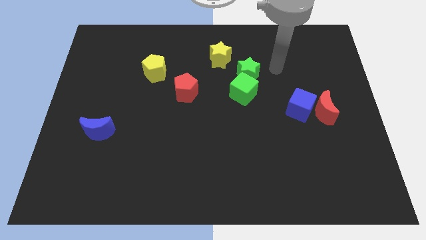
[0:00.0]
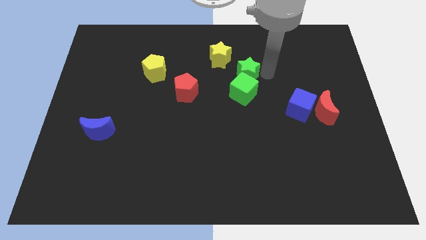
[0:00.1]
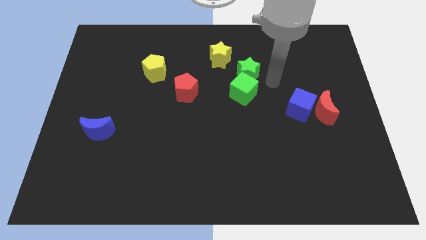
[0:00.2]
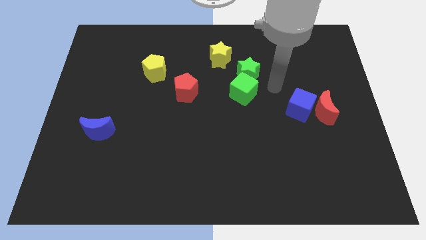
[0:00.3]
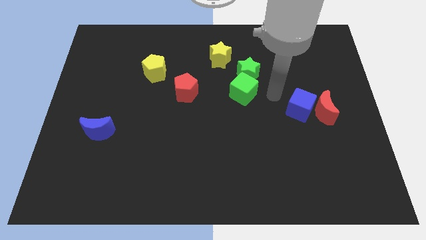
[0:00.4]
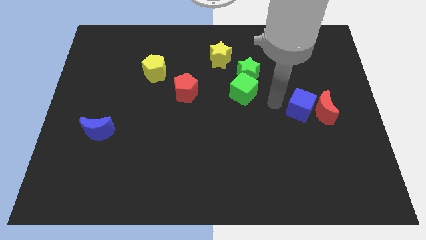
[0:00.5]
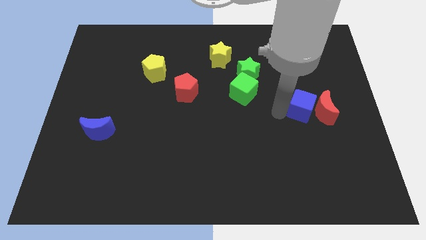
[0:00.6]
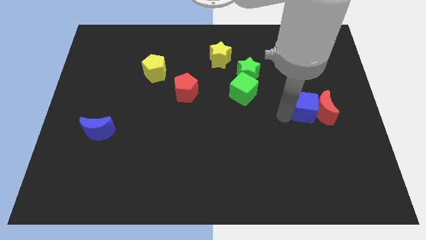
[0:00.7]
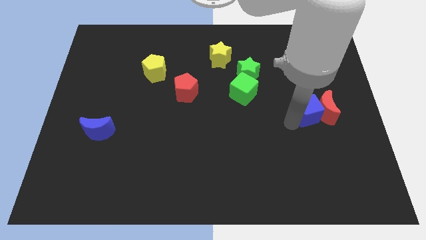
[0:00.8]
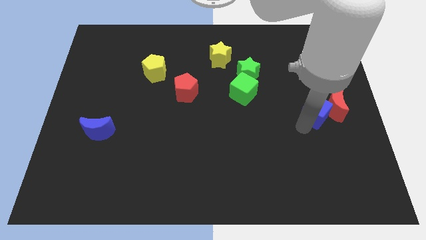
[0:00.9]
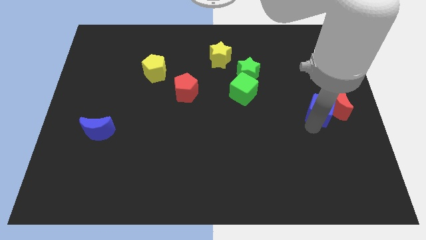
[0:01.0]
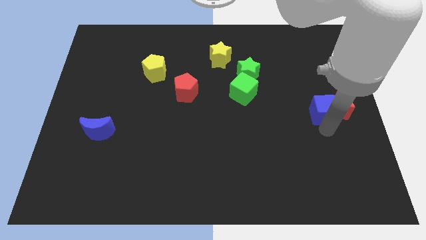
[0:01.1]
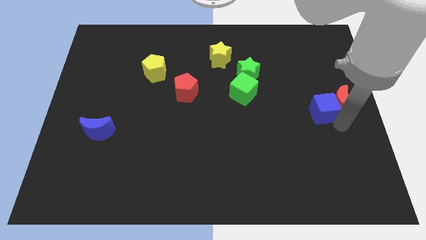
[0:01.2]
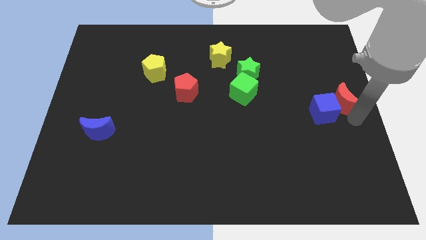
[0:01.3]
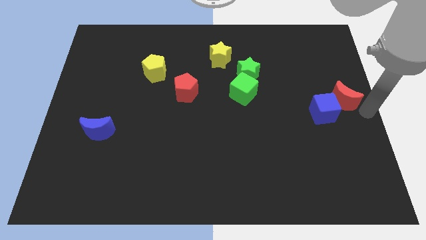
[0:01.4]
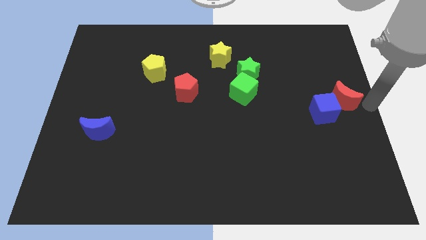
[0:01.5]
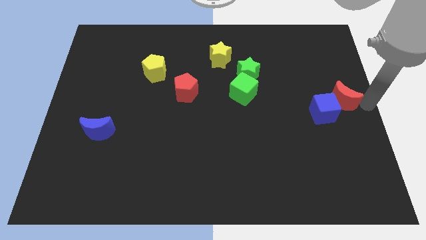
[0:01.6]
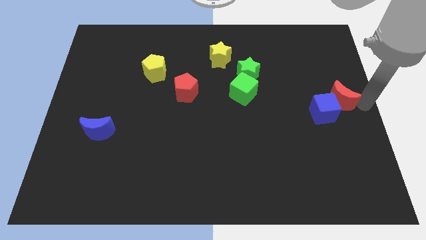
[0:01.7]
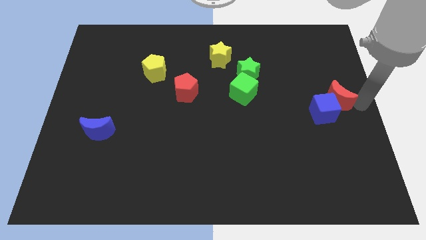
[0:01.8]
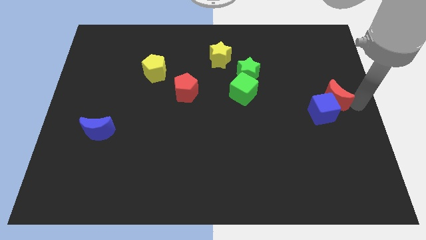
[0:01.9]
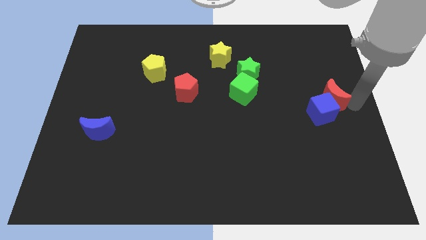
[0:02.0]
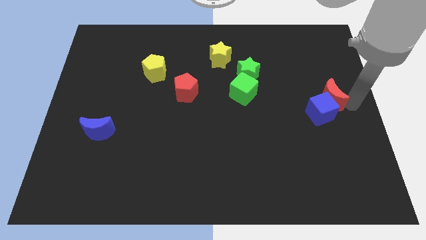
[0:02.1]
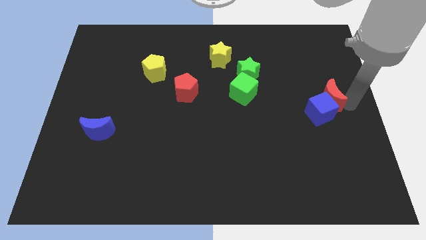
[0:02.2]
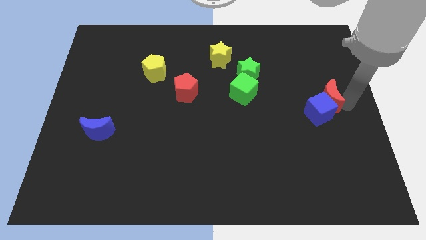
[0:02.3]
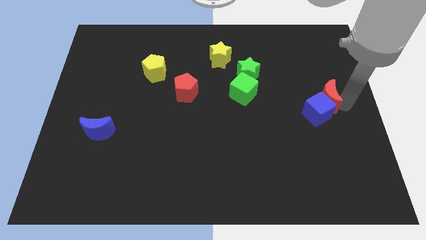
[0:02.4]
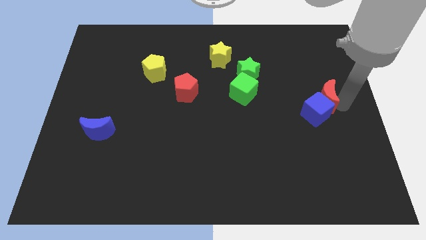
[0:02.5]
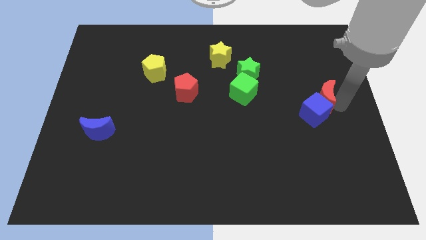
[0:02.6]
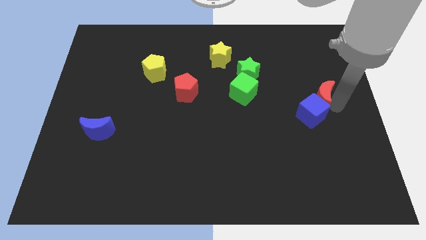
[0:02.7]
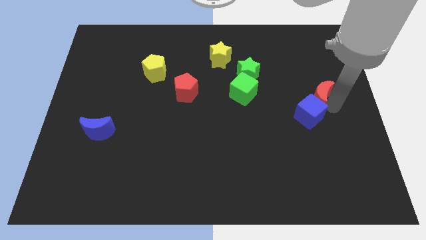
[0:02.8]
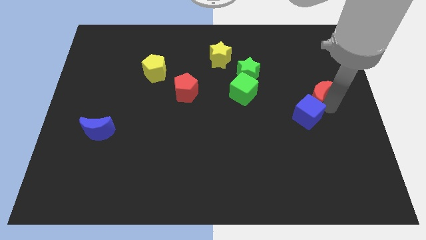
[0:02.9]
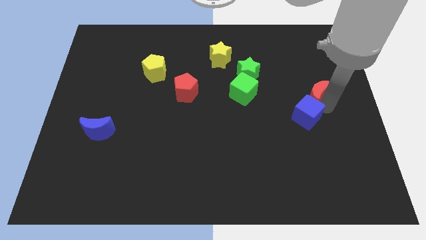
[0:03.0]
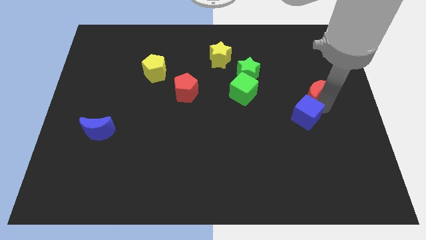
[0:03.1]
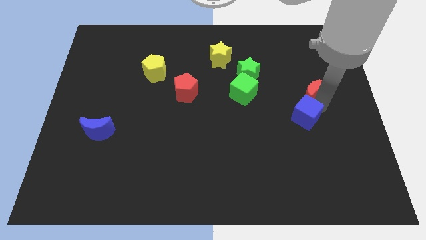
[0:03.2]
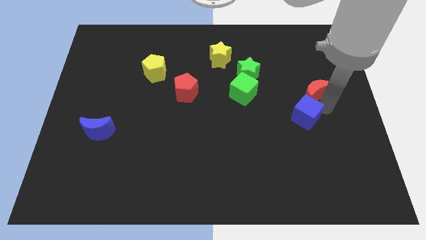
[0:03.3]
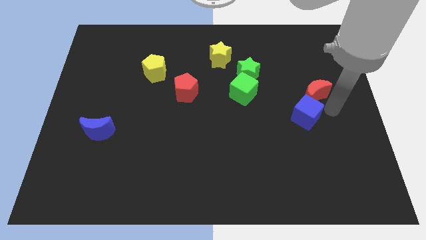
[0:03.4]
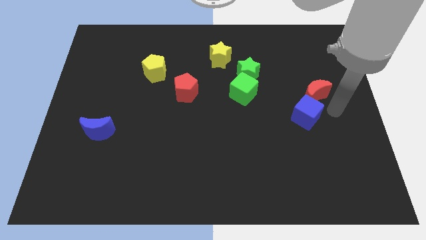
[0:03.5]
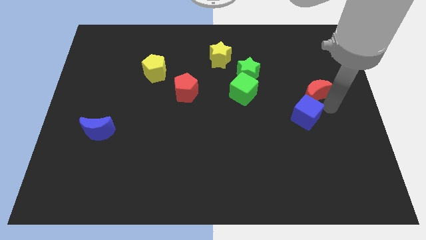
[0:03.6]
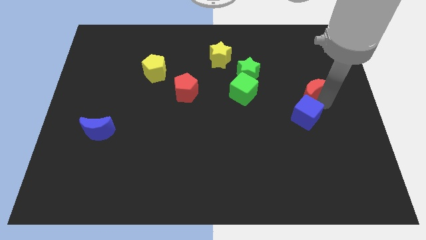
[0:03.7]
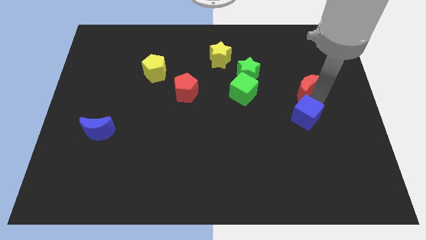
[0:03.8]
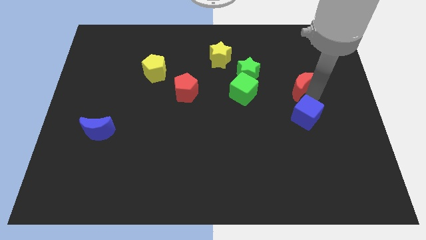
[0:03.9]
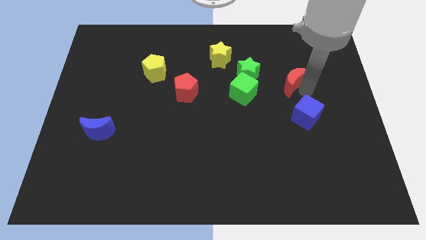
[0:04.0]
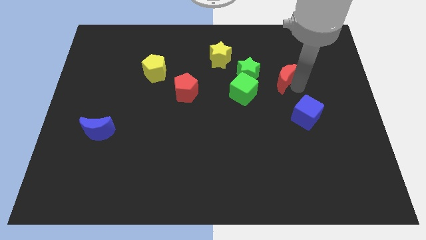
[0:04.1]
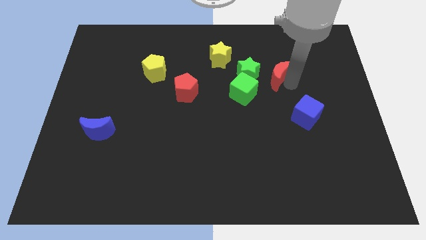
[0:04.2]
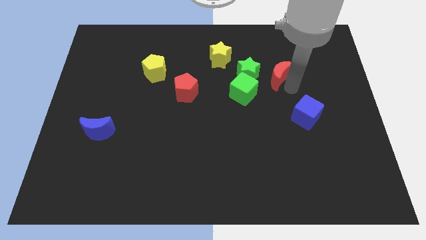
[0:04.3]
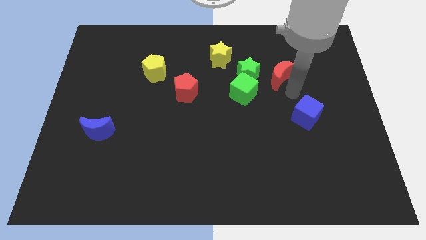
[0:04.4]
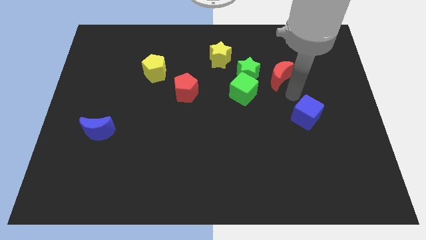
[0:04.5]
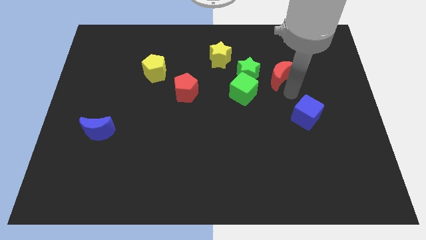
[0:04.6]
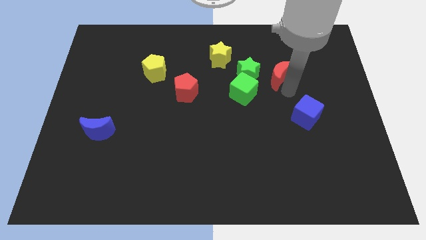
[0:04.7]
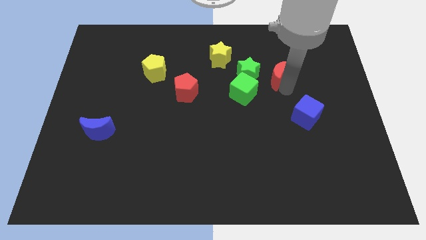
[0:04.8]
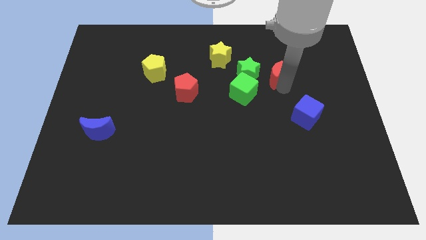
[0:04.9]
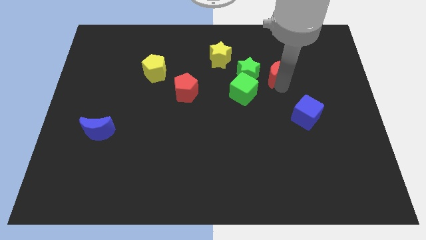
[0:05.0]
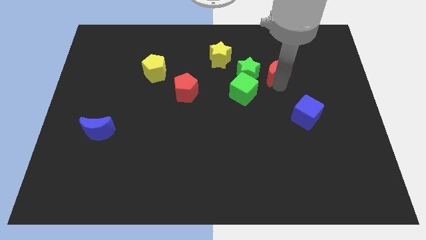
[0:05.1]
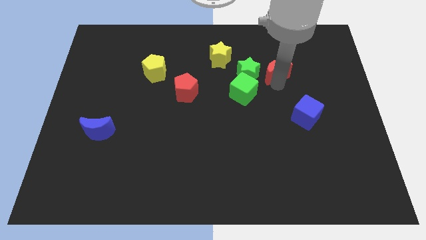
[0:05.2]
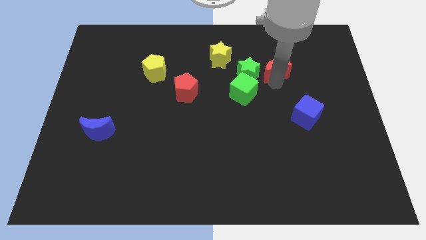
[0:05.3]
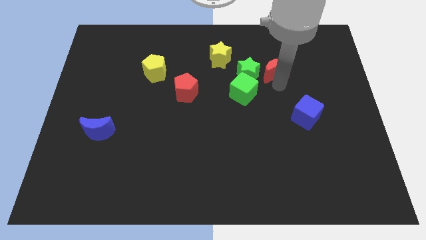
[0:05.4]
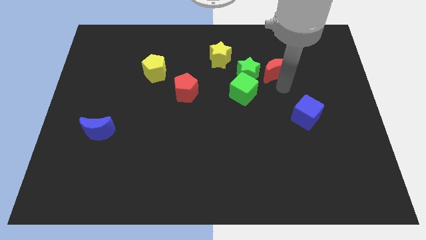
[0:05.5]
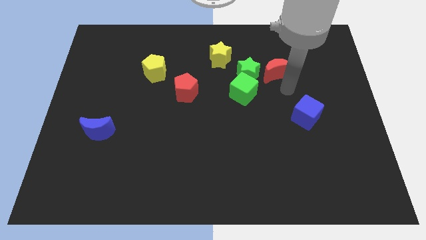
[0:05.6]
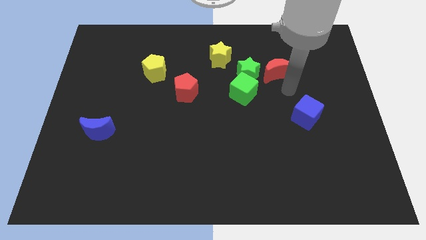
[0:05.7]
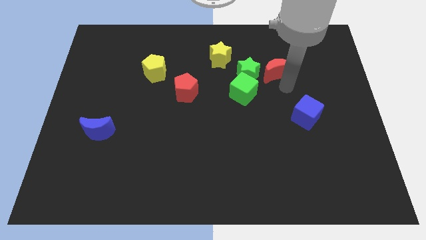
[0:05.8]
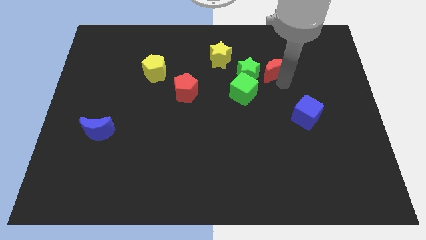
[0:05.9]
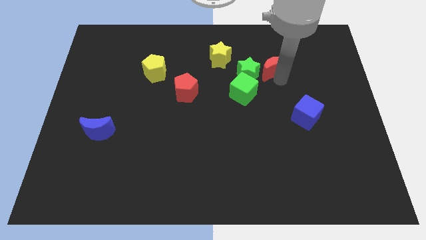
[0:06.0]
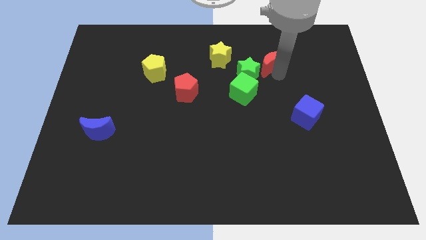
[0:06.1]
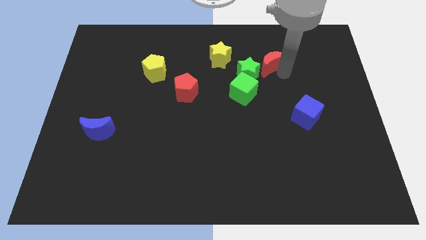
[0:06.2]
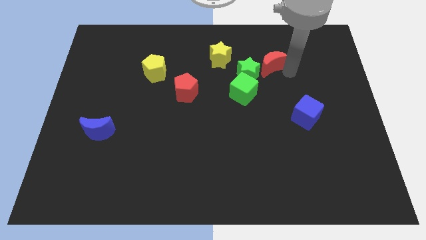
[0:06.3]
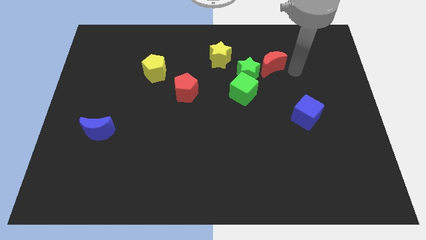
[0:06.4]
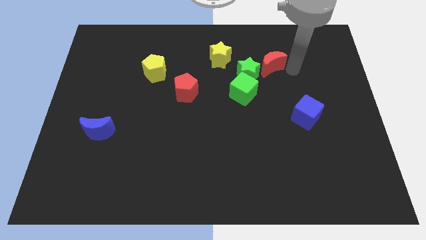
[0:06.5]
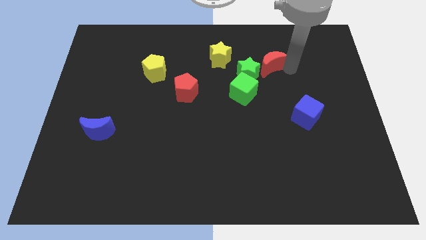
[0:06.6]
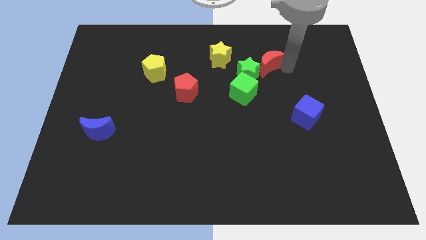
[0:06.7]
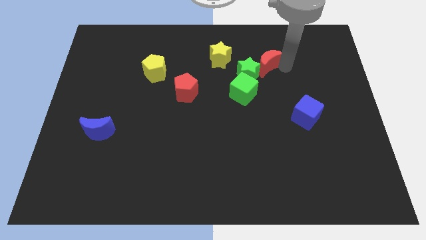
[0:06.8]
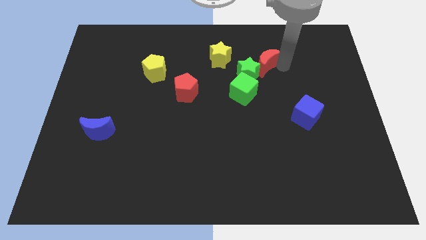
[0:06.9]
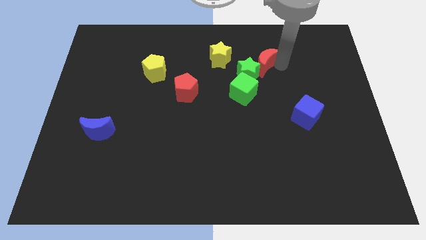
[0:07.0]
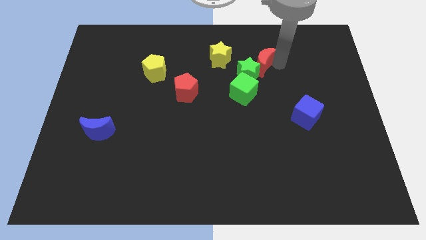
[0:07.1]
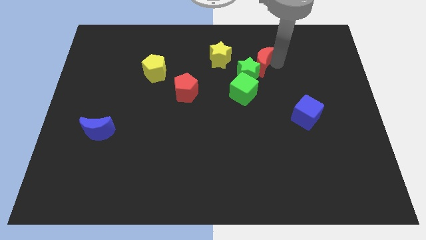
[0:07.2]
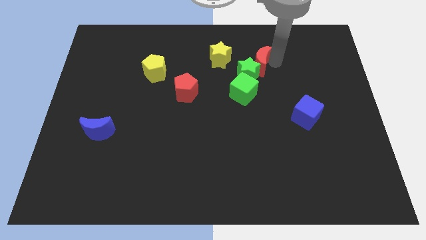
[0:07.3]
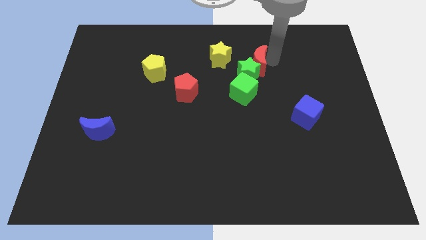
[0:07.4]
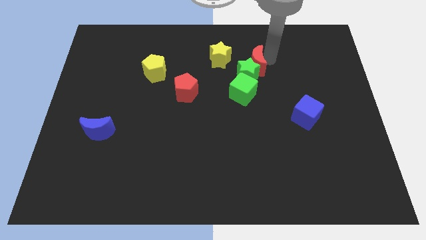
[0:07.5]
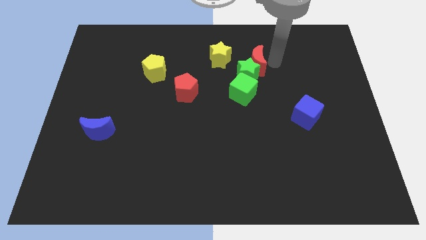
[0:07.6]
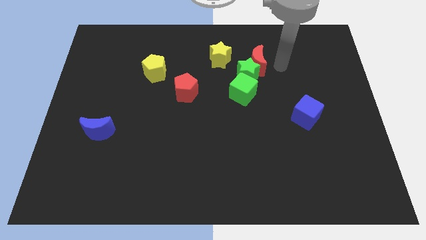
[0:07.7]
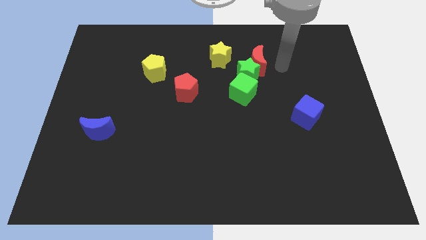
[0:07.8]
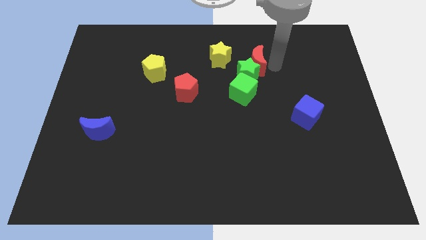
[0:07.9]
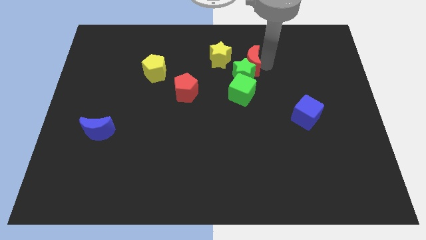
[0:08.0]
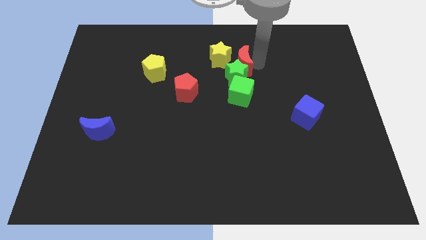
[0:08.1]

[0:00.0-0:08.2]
slide the red moon close to the yellow star

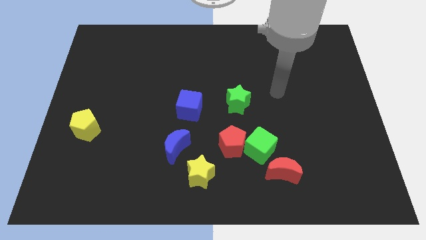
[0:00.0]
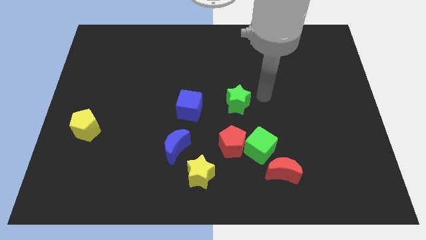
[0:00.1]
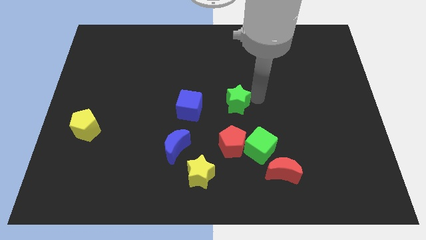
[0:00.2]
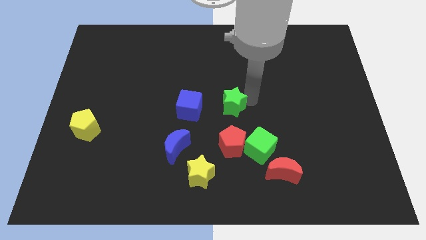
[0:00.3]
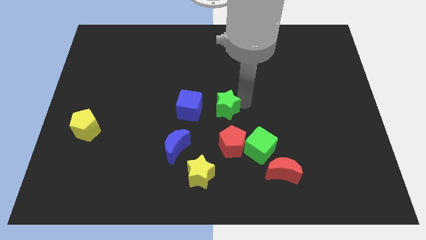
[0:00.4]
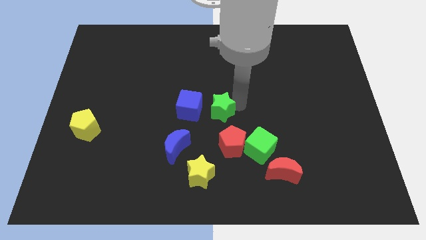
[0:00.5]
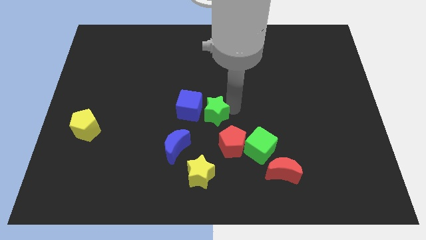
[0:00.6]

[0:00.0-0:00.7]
slide the green star next to the blue cube
